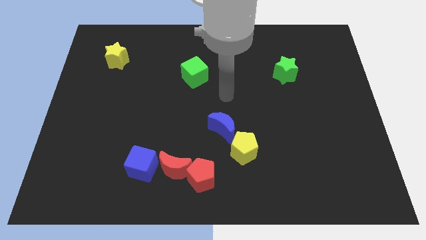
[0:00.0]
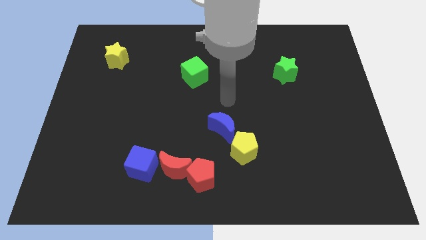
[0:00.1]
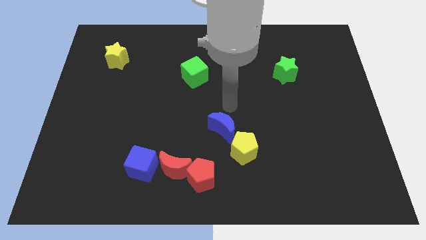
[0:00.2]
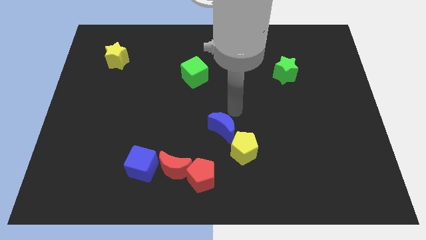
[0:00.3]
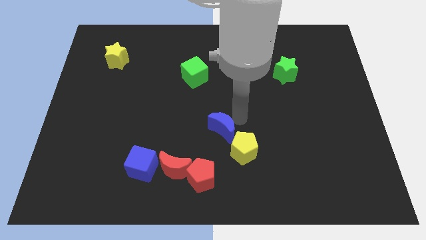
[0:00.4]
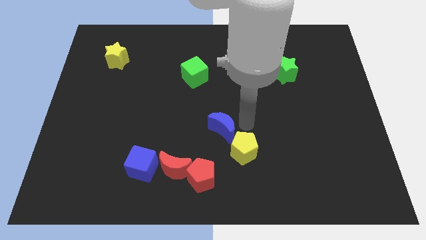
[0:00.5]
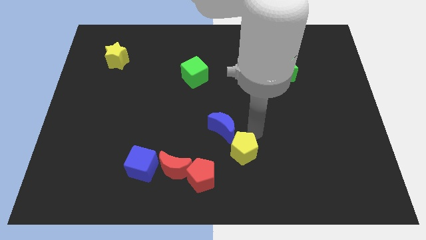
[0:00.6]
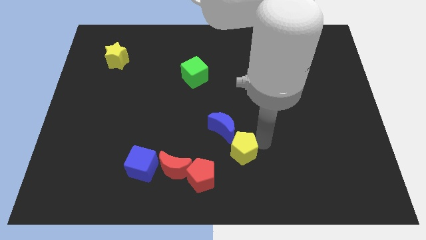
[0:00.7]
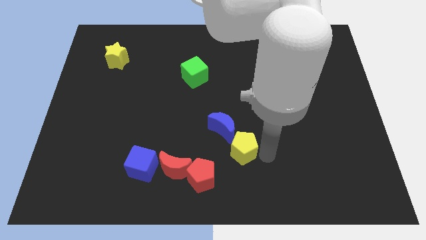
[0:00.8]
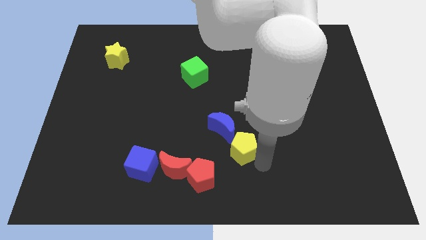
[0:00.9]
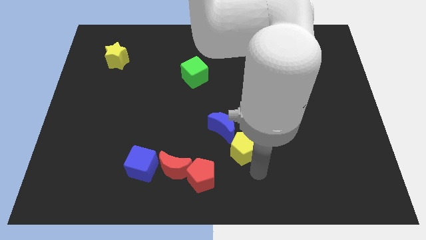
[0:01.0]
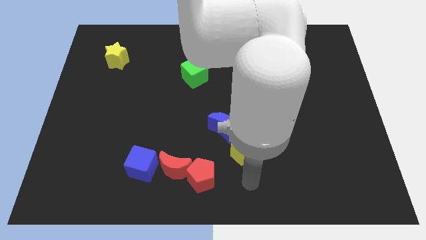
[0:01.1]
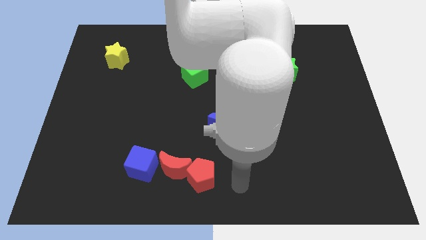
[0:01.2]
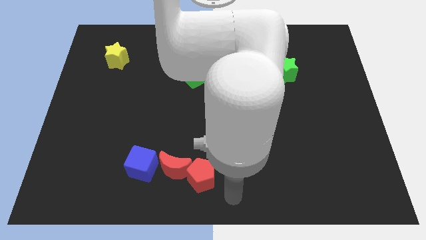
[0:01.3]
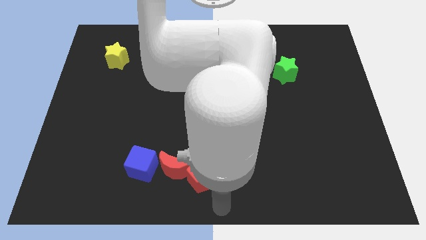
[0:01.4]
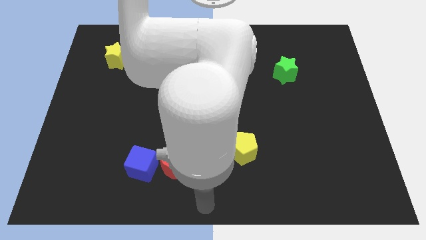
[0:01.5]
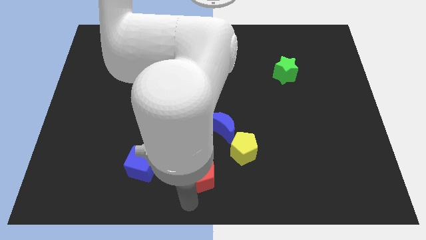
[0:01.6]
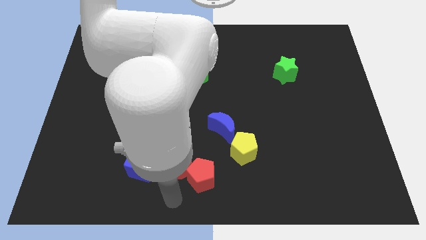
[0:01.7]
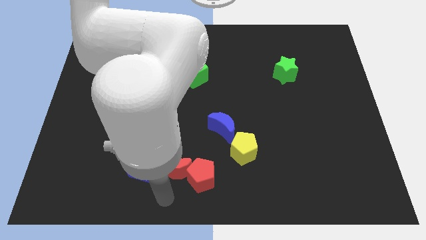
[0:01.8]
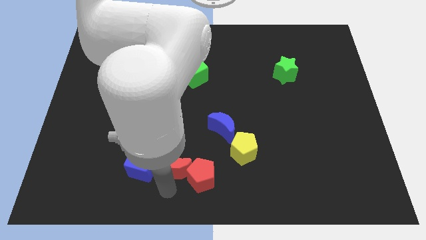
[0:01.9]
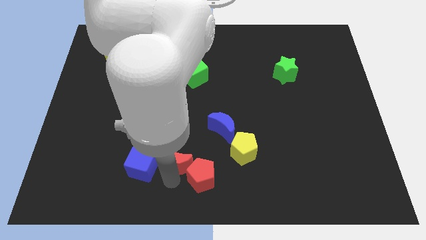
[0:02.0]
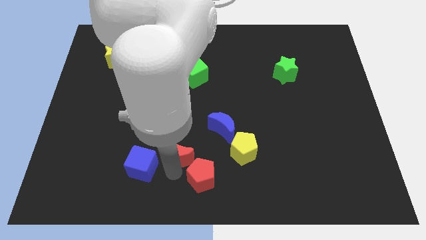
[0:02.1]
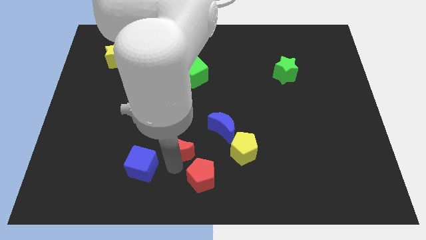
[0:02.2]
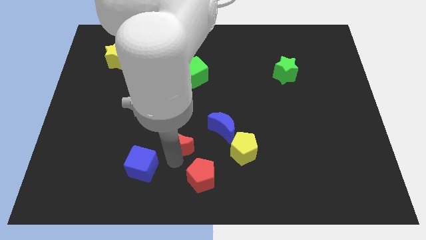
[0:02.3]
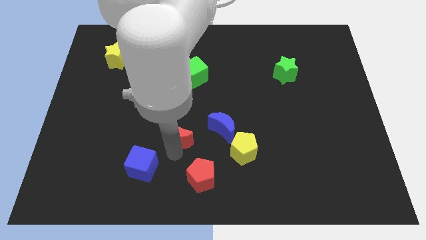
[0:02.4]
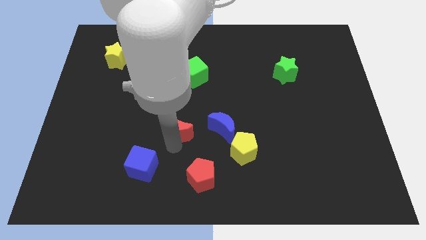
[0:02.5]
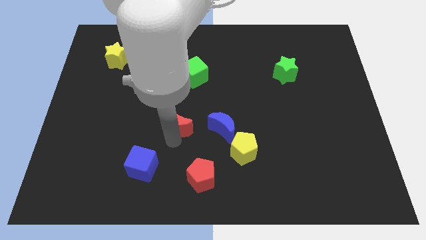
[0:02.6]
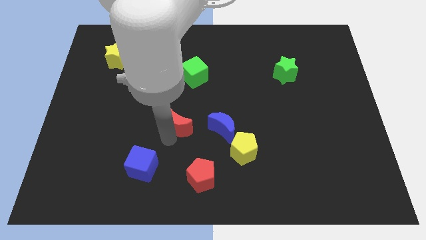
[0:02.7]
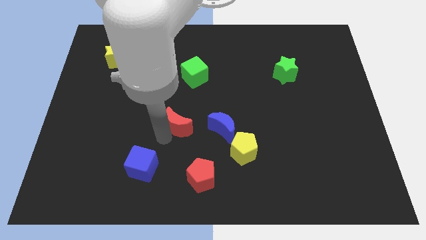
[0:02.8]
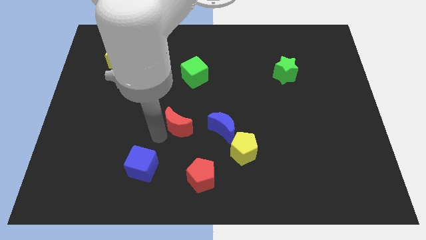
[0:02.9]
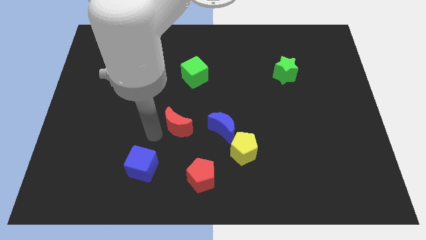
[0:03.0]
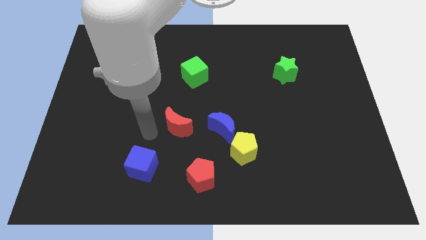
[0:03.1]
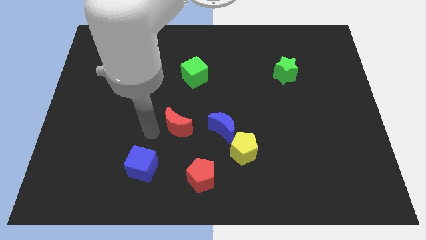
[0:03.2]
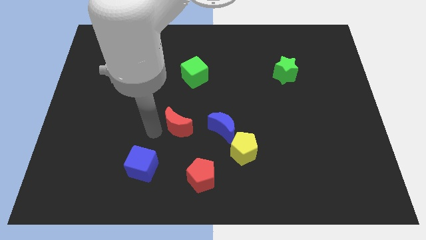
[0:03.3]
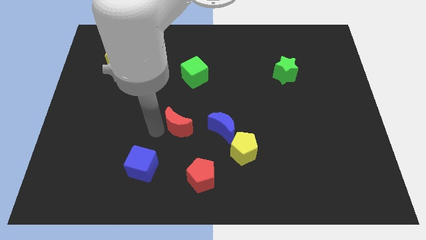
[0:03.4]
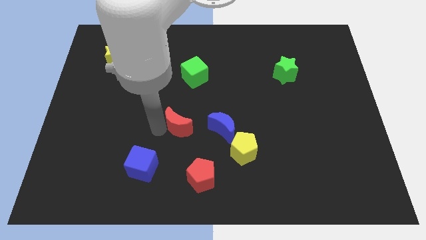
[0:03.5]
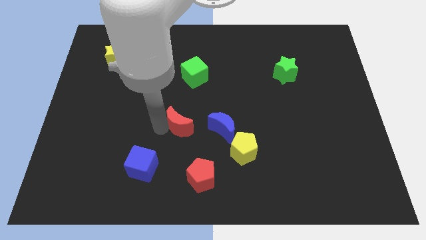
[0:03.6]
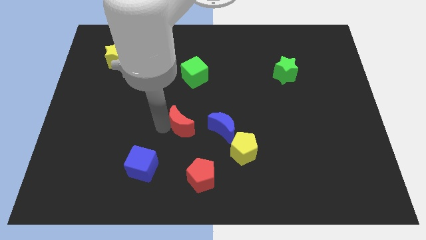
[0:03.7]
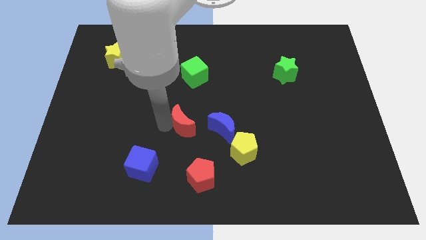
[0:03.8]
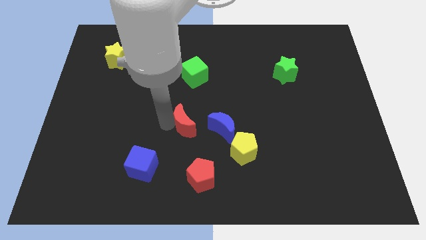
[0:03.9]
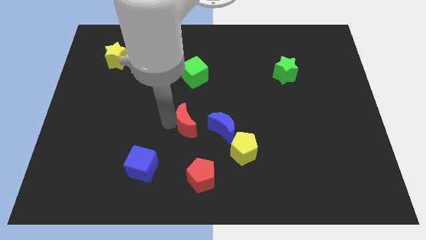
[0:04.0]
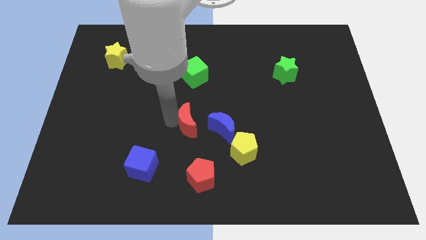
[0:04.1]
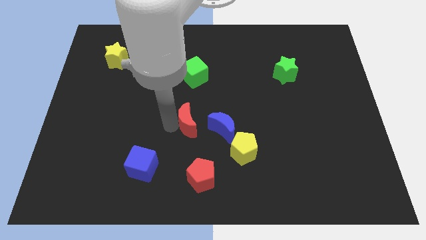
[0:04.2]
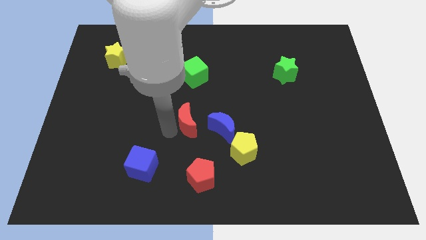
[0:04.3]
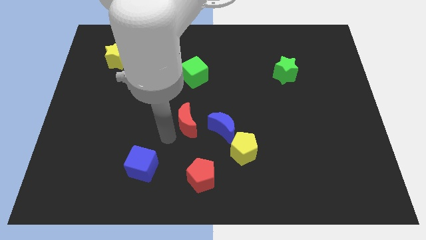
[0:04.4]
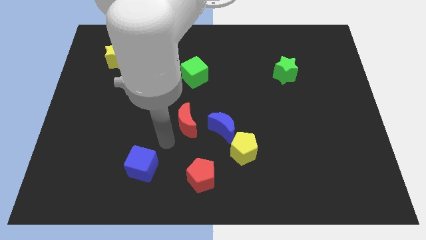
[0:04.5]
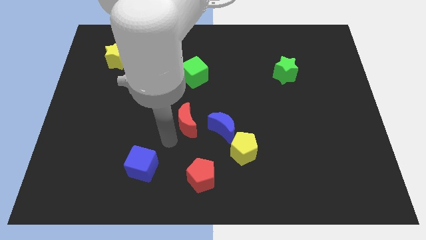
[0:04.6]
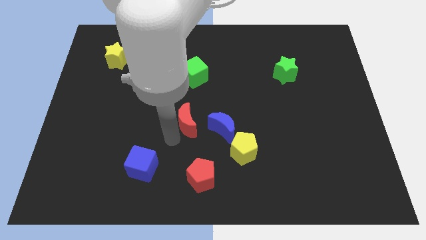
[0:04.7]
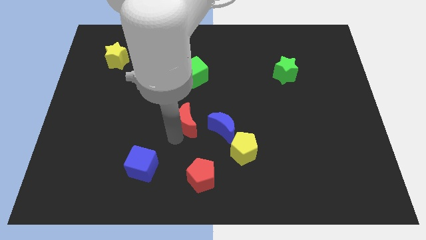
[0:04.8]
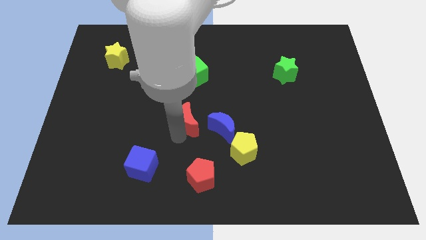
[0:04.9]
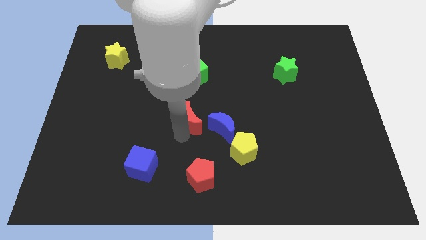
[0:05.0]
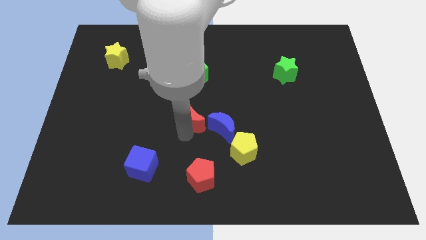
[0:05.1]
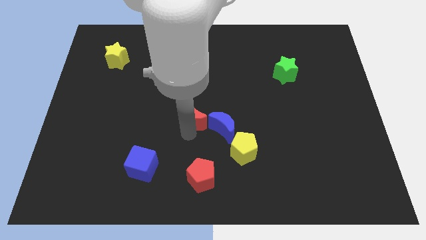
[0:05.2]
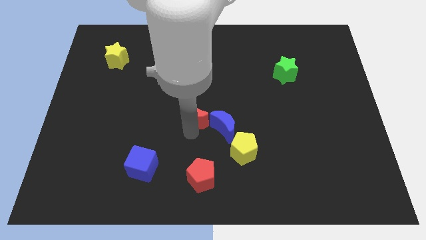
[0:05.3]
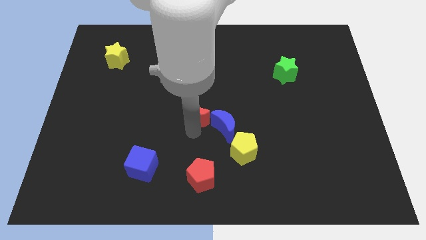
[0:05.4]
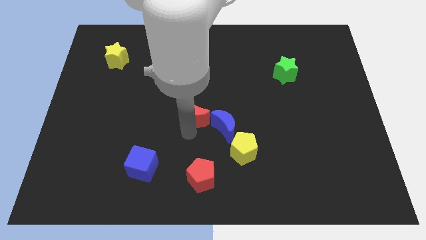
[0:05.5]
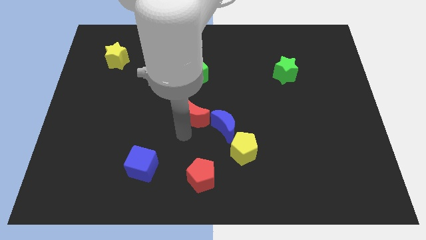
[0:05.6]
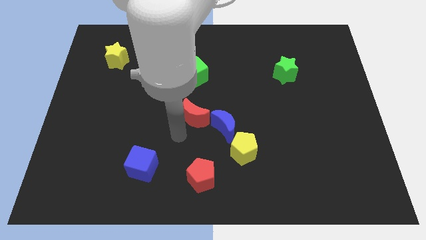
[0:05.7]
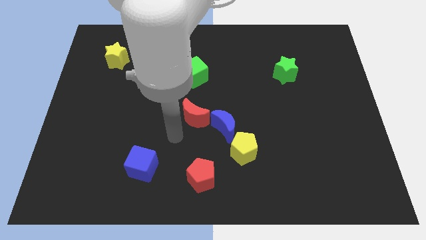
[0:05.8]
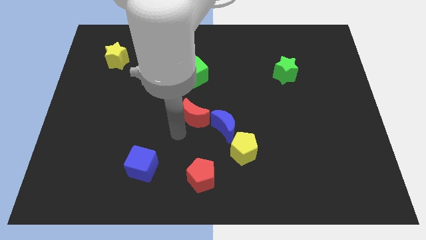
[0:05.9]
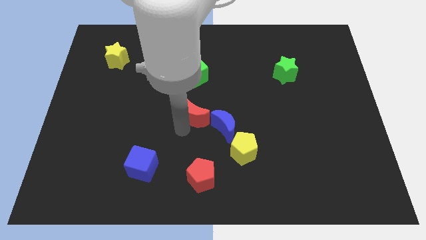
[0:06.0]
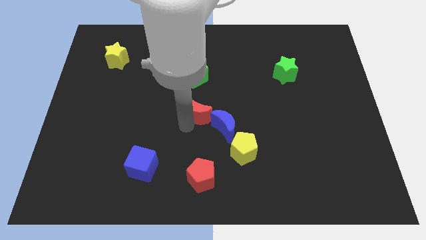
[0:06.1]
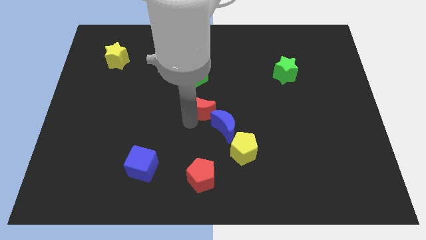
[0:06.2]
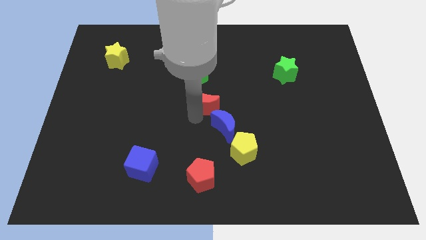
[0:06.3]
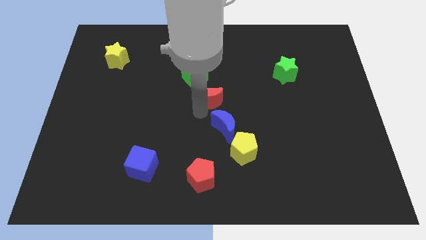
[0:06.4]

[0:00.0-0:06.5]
move the red moon diagonally down and to the right of the green cube

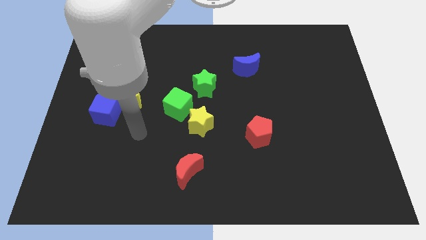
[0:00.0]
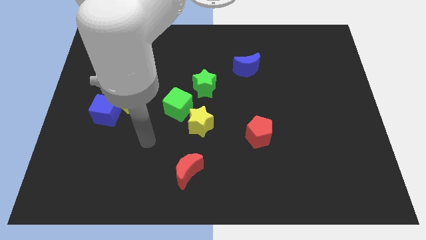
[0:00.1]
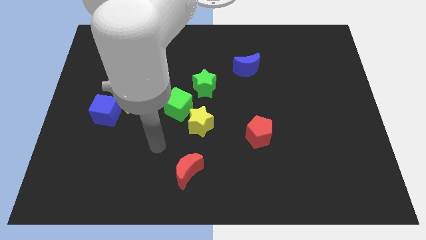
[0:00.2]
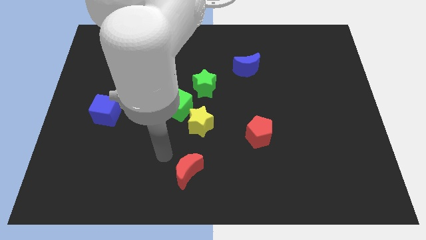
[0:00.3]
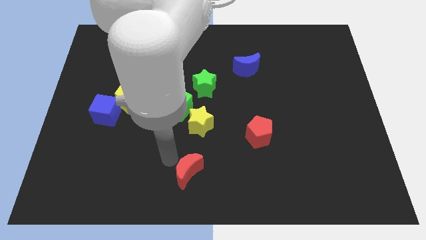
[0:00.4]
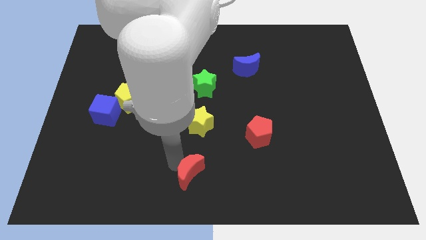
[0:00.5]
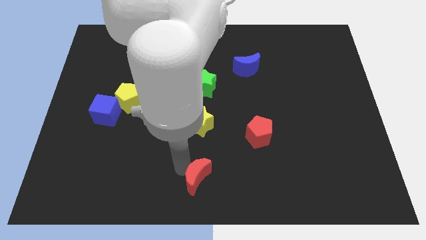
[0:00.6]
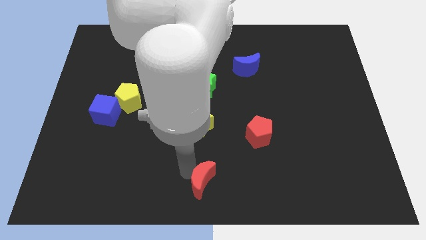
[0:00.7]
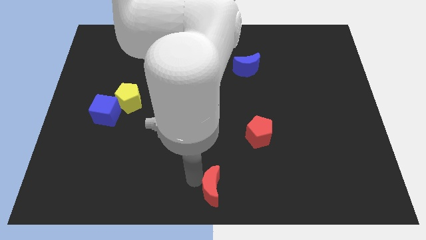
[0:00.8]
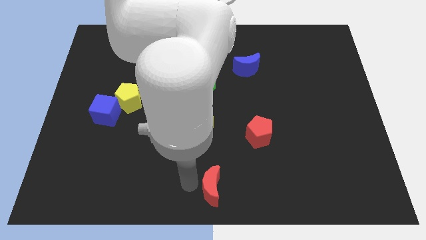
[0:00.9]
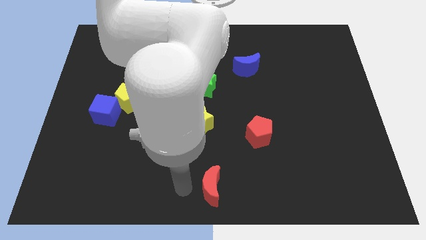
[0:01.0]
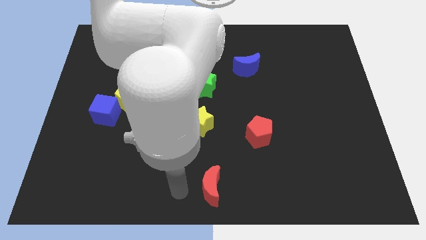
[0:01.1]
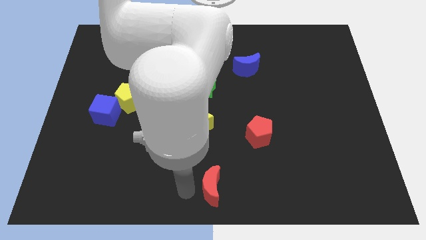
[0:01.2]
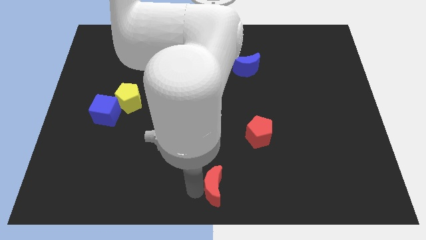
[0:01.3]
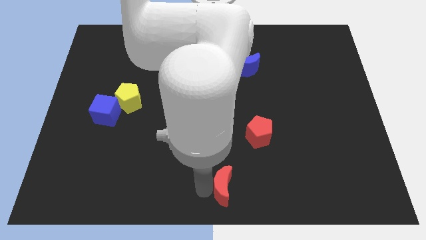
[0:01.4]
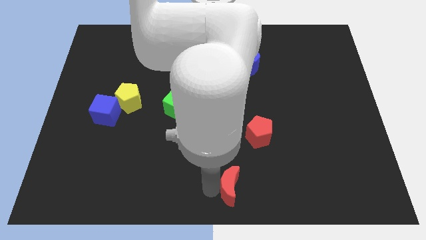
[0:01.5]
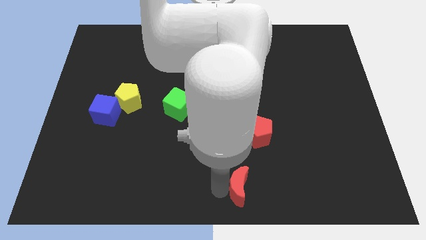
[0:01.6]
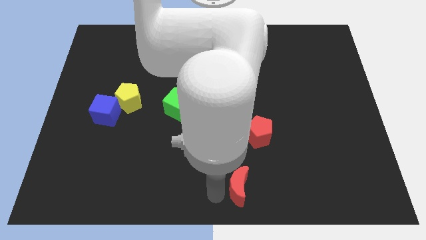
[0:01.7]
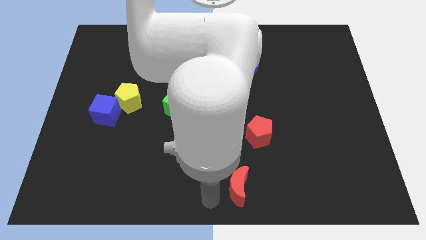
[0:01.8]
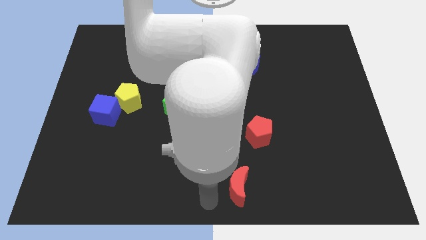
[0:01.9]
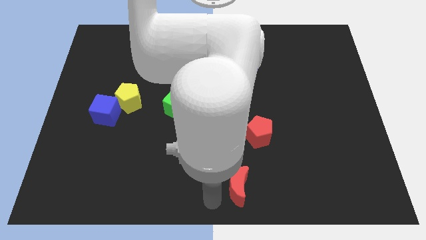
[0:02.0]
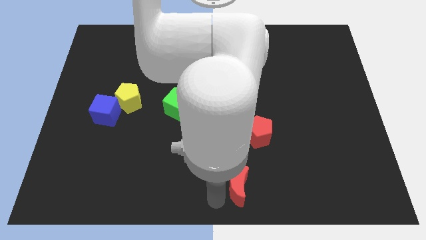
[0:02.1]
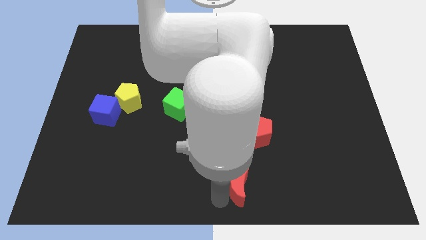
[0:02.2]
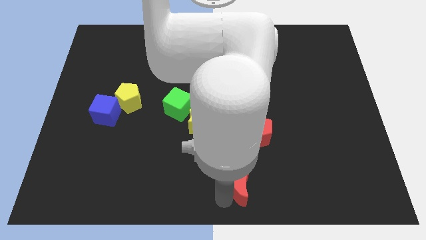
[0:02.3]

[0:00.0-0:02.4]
push the red moon below the red pentagon
